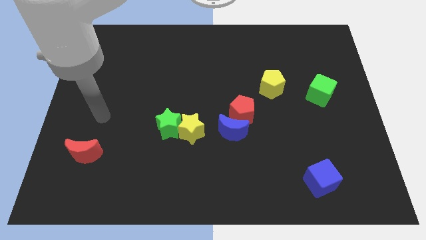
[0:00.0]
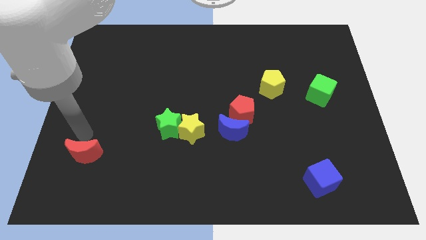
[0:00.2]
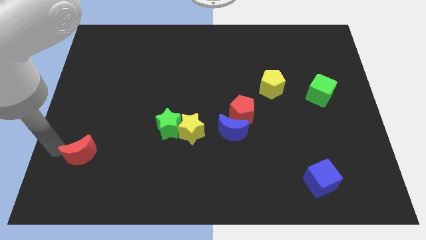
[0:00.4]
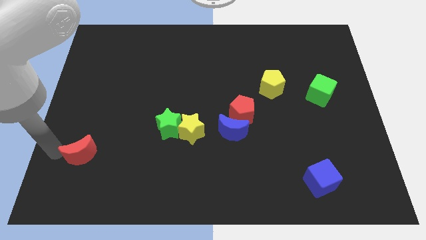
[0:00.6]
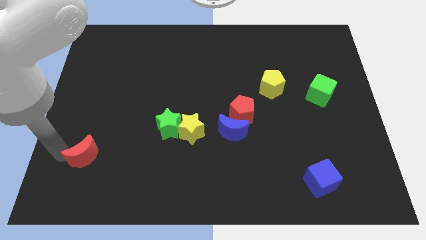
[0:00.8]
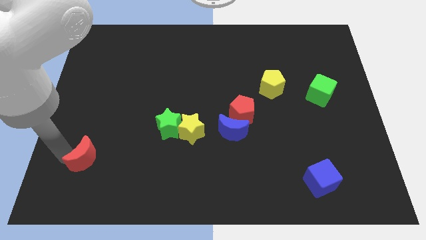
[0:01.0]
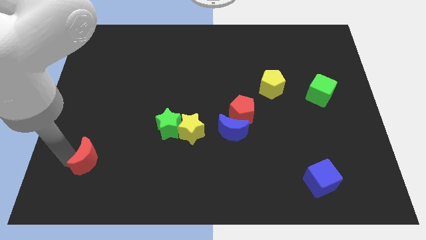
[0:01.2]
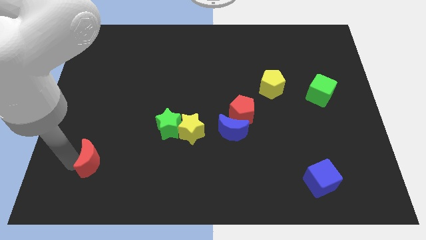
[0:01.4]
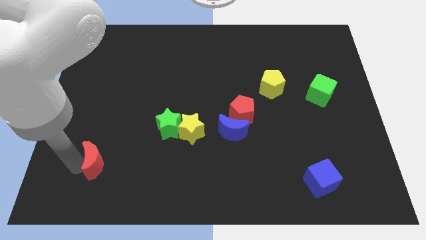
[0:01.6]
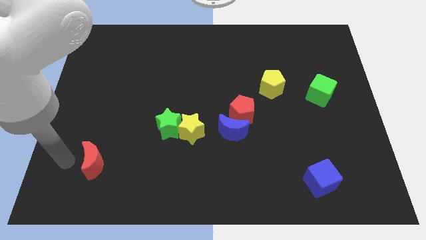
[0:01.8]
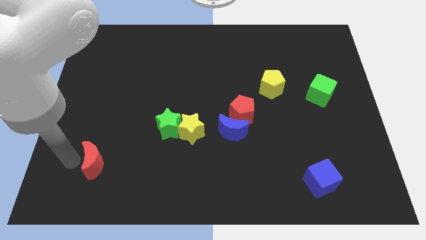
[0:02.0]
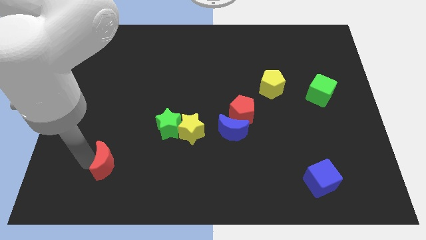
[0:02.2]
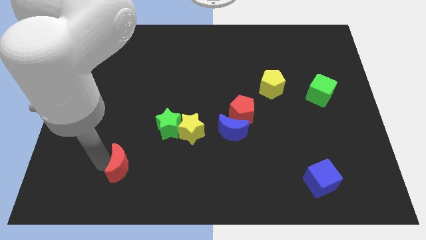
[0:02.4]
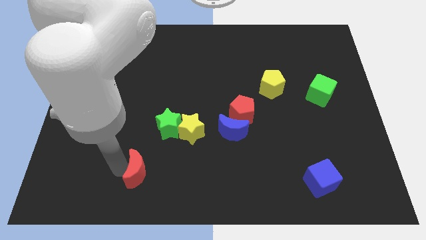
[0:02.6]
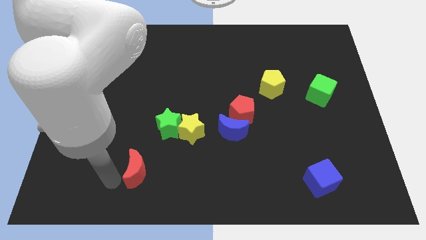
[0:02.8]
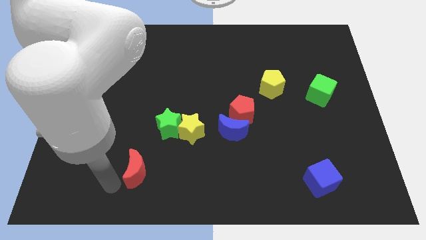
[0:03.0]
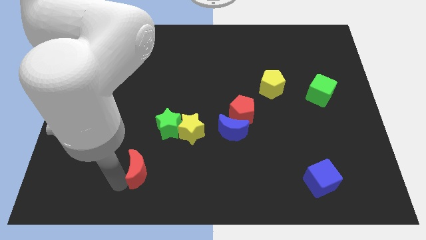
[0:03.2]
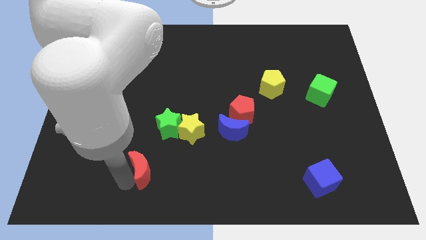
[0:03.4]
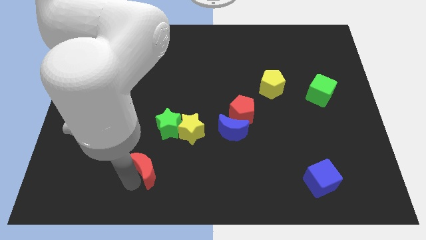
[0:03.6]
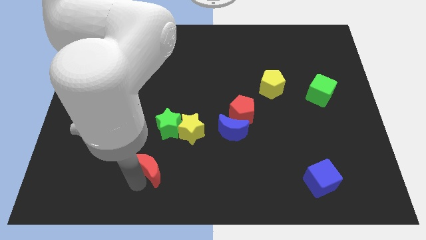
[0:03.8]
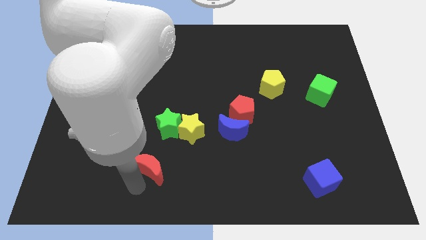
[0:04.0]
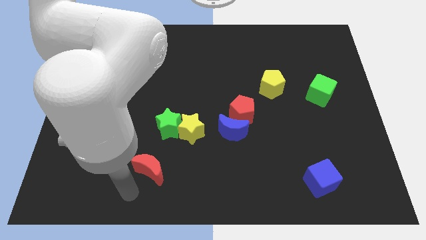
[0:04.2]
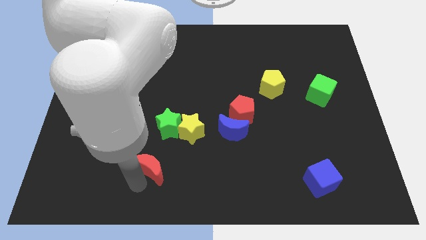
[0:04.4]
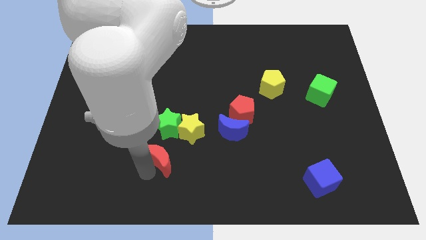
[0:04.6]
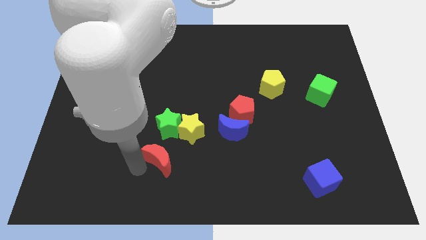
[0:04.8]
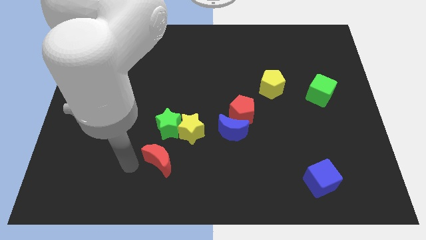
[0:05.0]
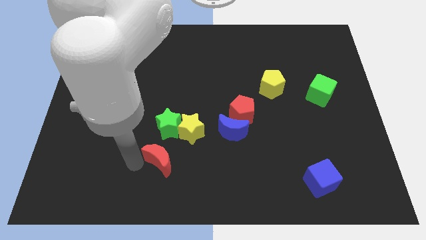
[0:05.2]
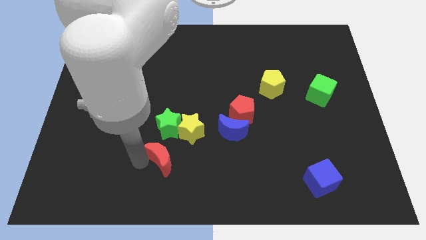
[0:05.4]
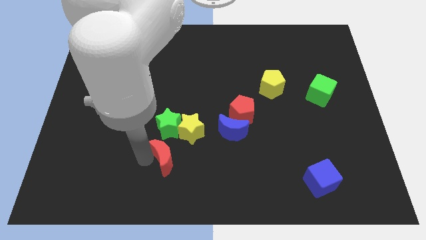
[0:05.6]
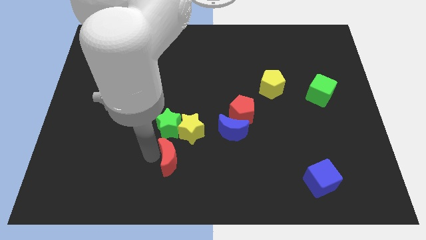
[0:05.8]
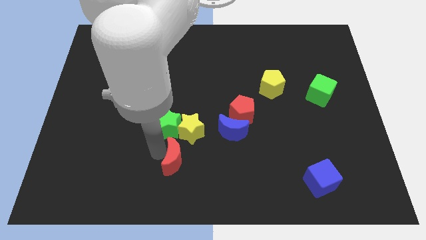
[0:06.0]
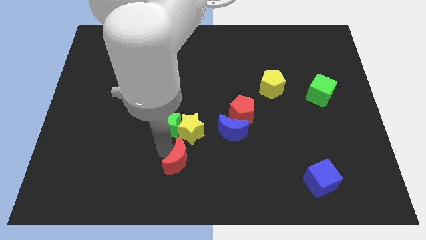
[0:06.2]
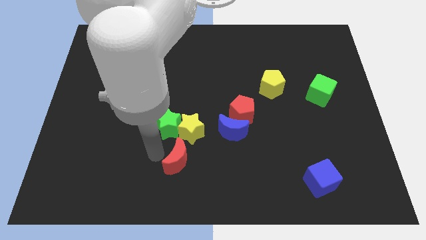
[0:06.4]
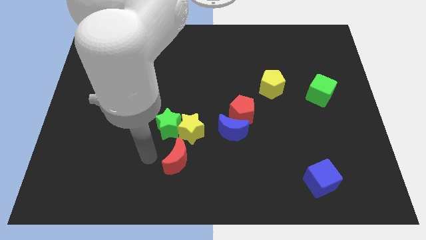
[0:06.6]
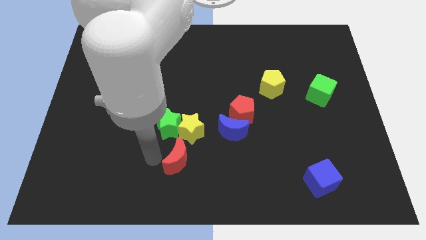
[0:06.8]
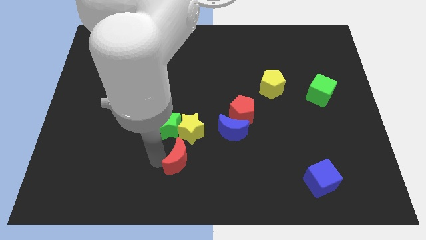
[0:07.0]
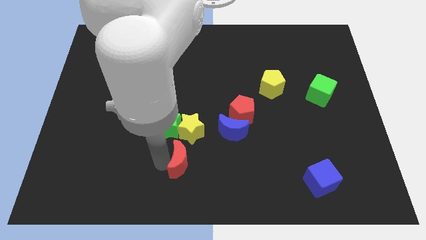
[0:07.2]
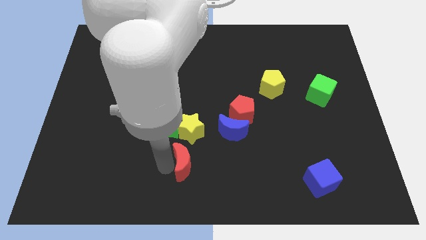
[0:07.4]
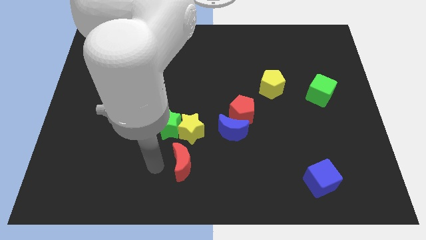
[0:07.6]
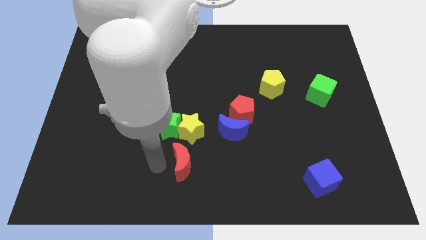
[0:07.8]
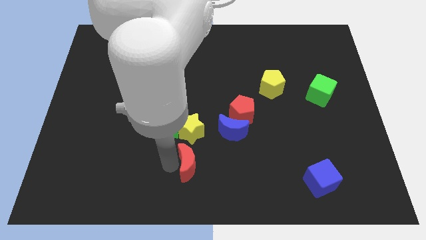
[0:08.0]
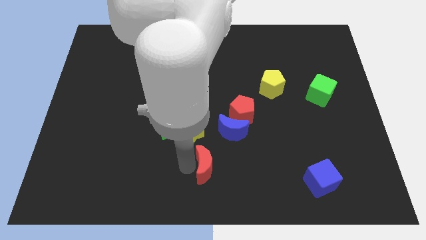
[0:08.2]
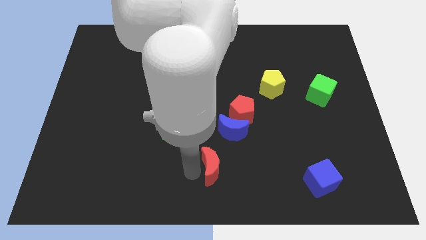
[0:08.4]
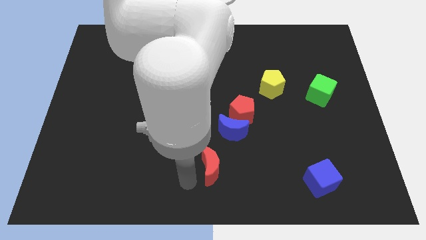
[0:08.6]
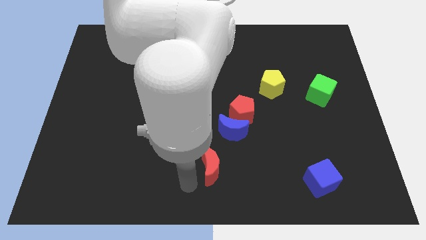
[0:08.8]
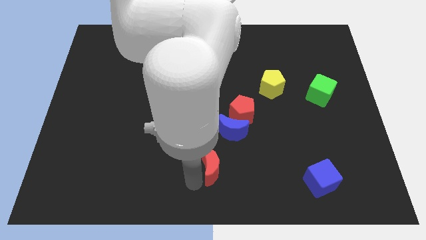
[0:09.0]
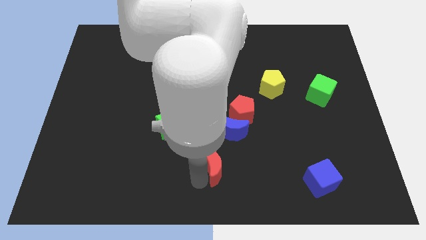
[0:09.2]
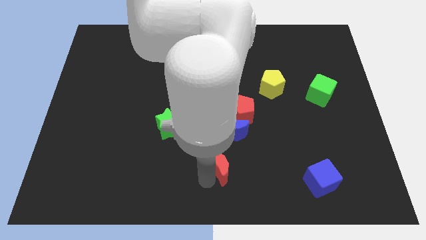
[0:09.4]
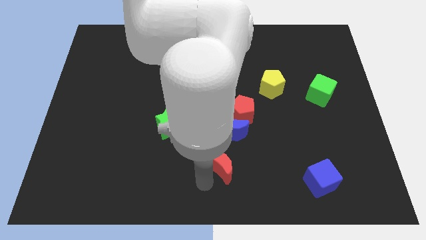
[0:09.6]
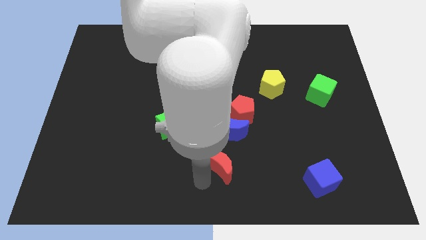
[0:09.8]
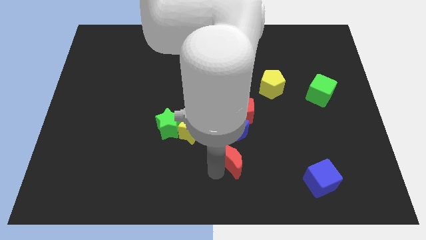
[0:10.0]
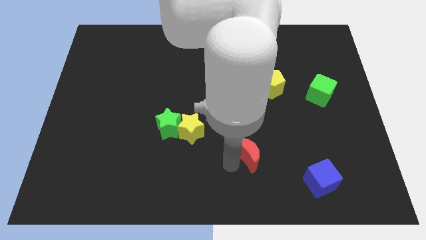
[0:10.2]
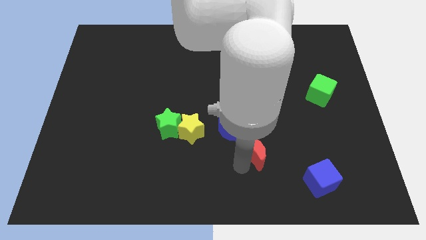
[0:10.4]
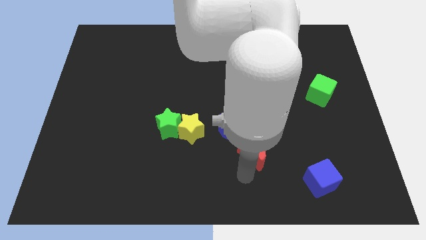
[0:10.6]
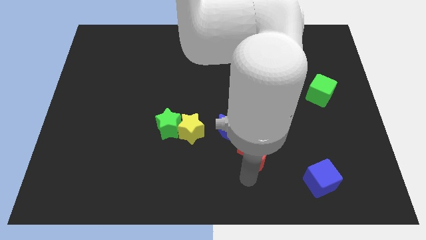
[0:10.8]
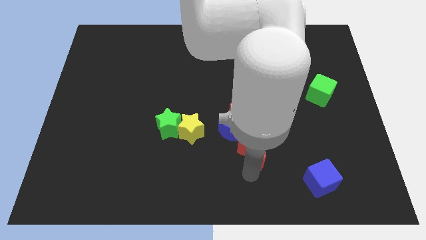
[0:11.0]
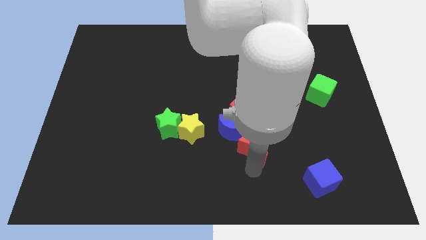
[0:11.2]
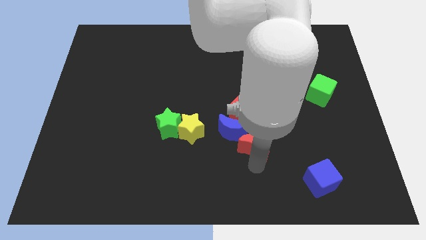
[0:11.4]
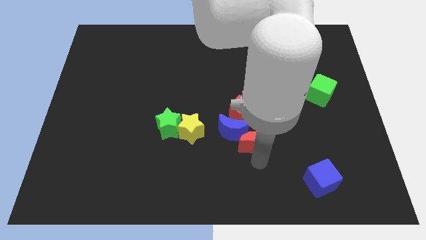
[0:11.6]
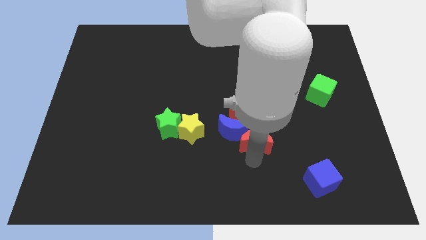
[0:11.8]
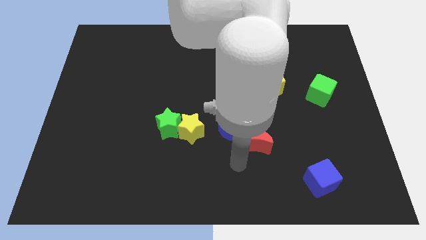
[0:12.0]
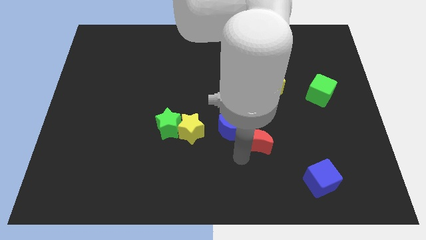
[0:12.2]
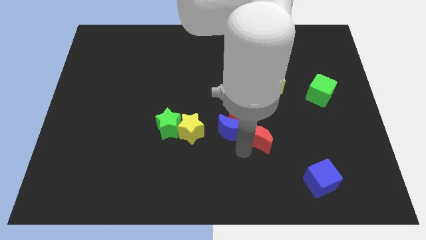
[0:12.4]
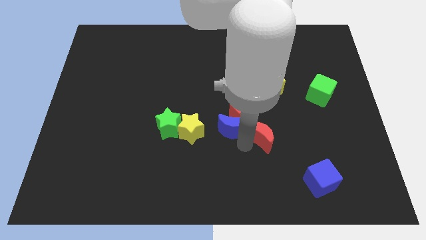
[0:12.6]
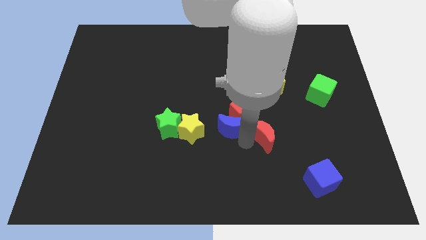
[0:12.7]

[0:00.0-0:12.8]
slide the red moon to the bottom side of the yellow pentagon
